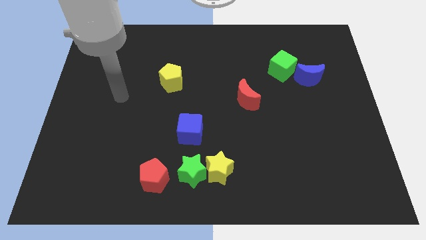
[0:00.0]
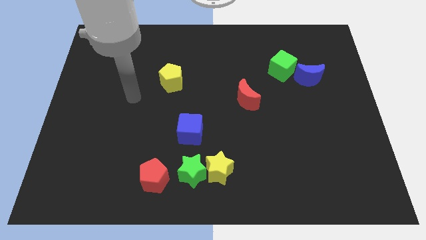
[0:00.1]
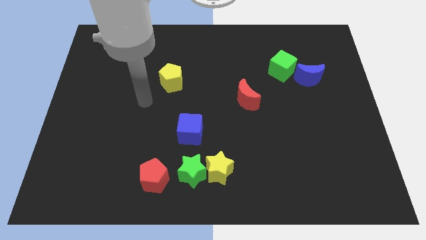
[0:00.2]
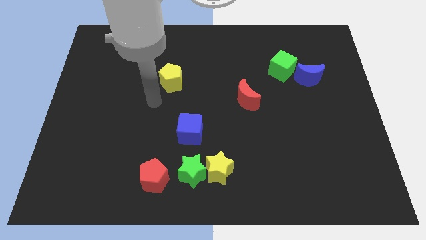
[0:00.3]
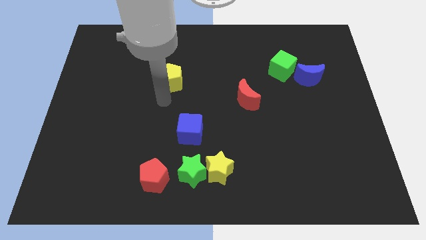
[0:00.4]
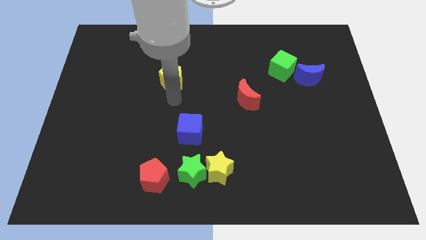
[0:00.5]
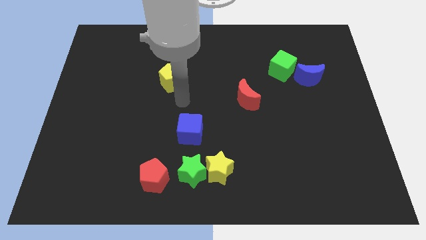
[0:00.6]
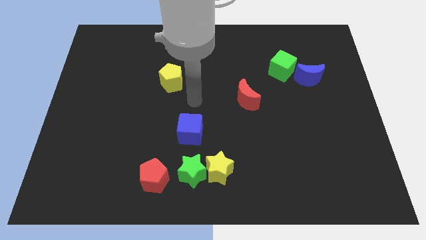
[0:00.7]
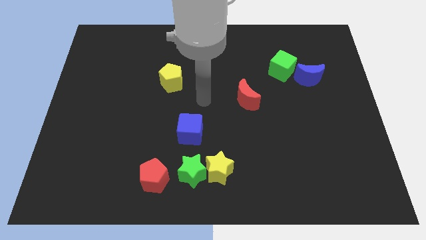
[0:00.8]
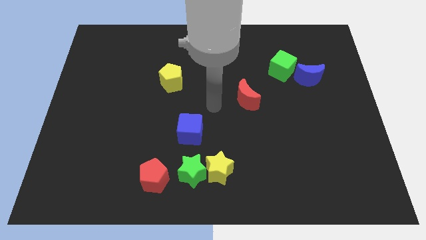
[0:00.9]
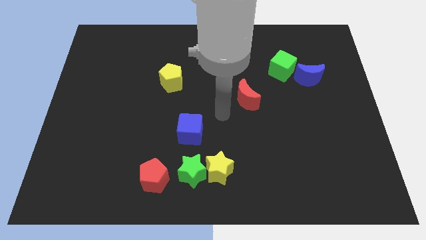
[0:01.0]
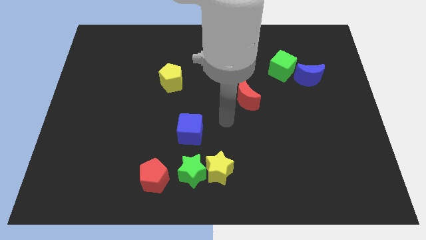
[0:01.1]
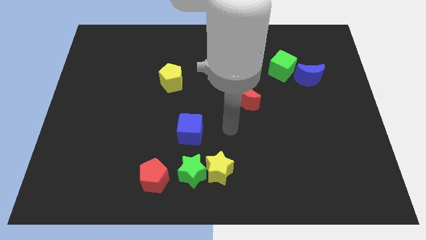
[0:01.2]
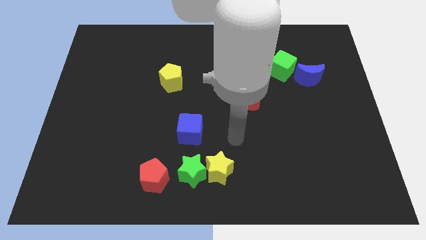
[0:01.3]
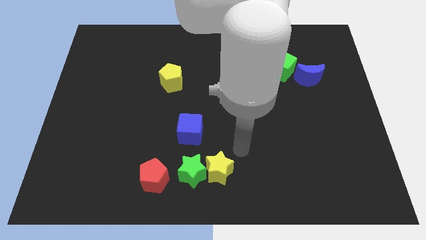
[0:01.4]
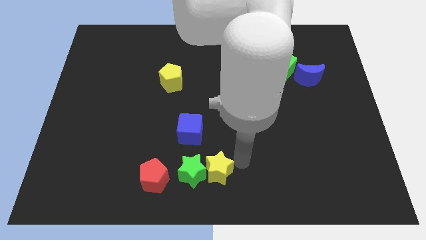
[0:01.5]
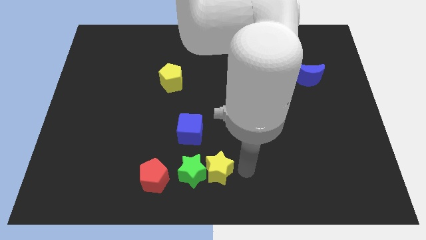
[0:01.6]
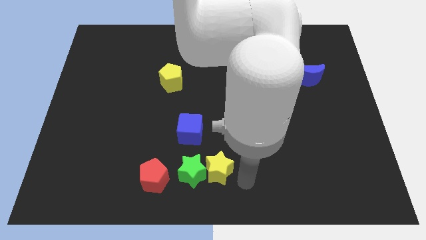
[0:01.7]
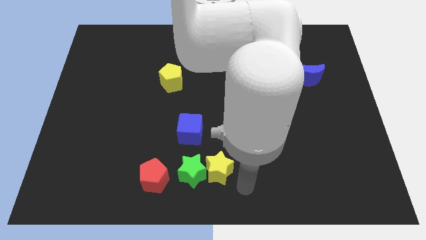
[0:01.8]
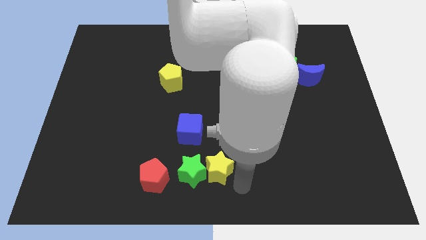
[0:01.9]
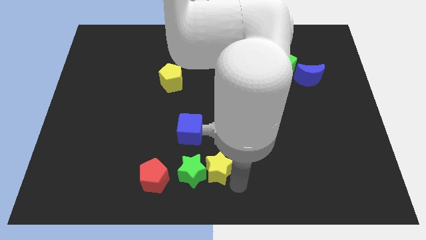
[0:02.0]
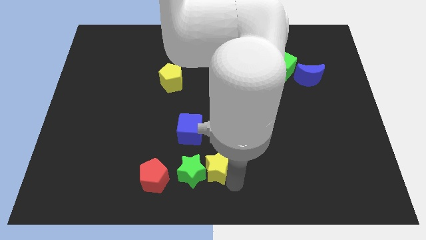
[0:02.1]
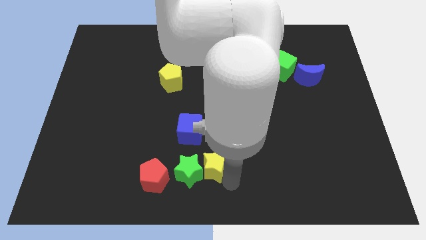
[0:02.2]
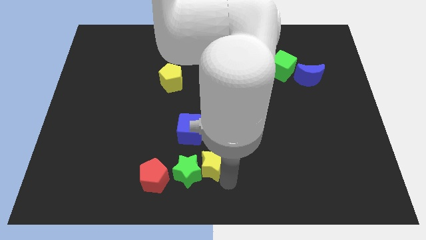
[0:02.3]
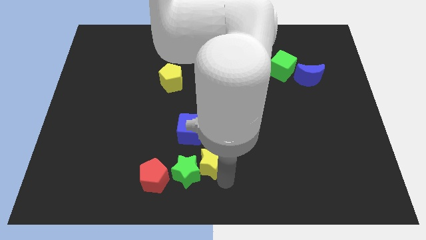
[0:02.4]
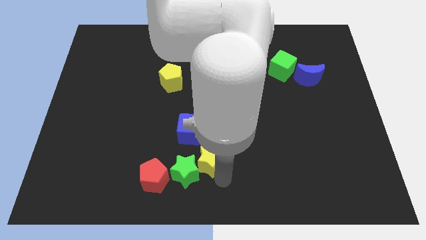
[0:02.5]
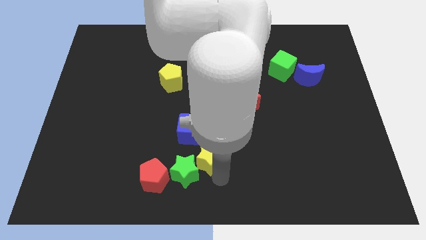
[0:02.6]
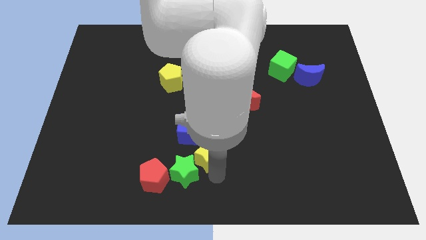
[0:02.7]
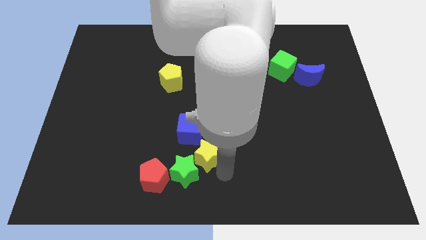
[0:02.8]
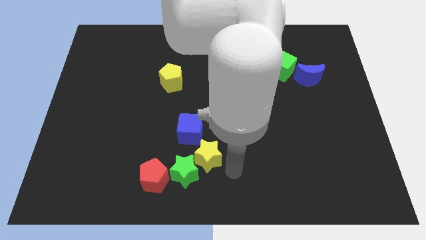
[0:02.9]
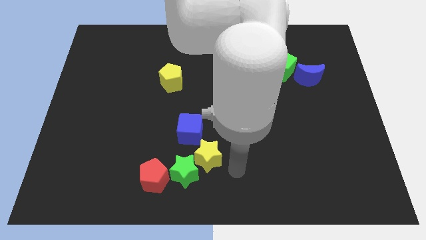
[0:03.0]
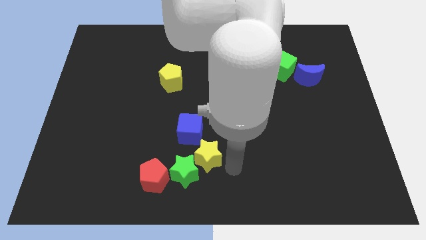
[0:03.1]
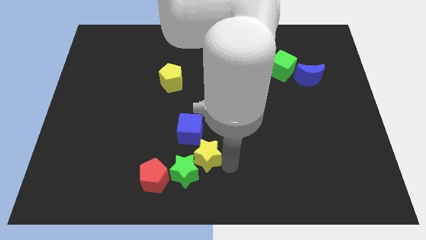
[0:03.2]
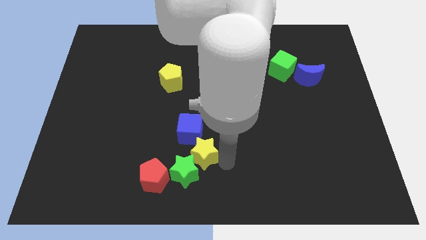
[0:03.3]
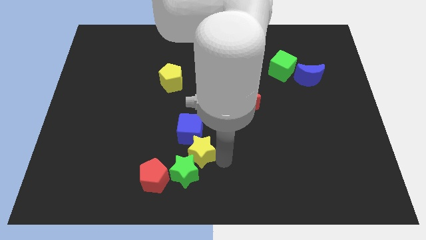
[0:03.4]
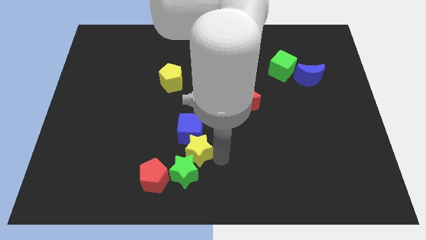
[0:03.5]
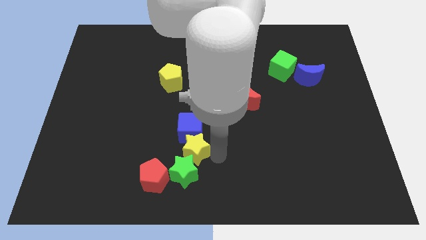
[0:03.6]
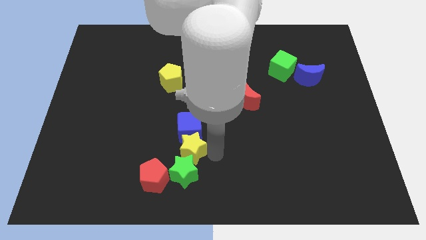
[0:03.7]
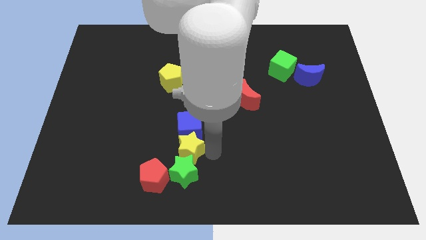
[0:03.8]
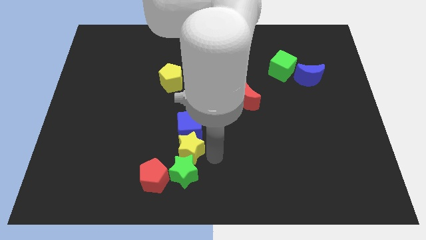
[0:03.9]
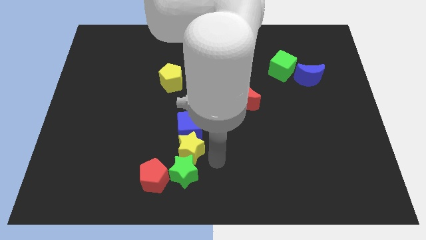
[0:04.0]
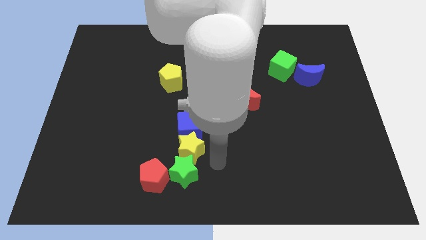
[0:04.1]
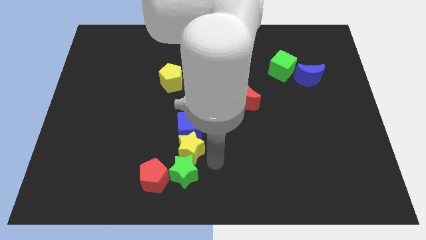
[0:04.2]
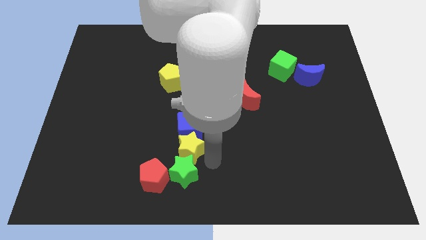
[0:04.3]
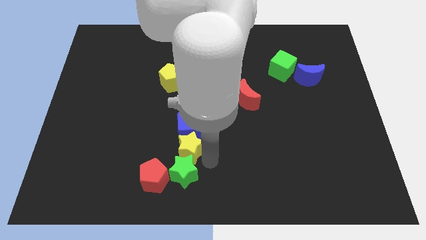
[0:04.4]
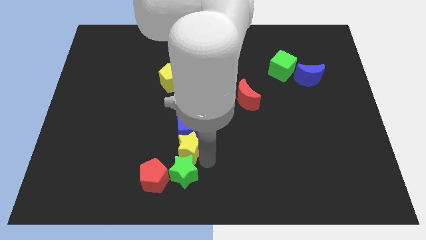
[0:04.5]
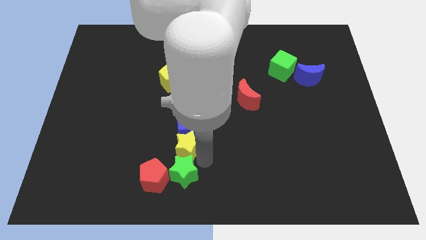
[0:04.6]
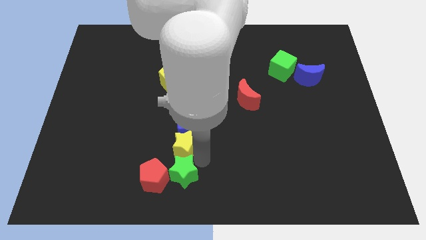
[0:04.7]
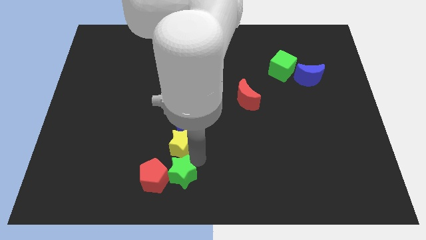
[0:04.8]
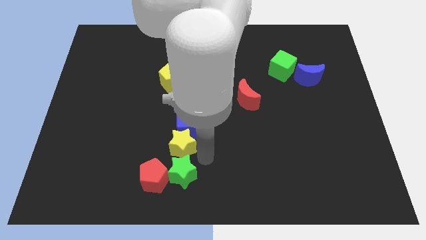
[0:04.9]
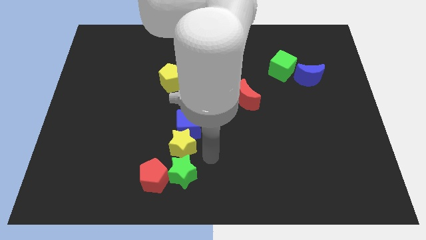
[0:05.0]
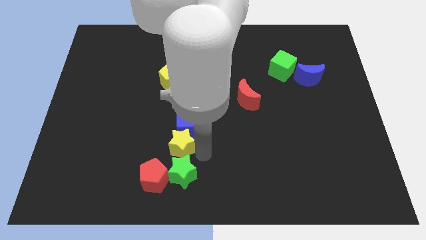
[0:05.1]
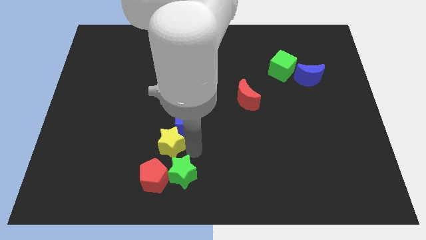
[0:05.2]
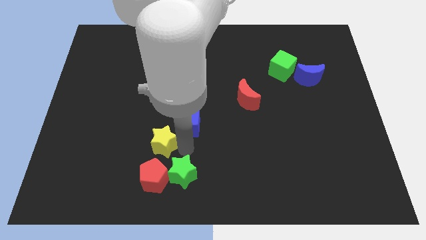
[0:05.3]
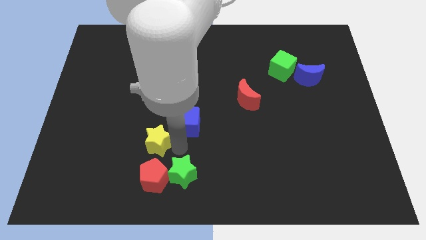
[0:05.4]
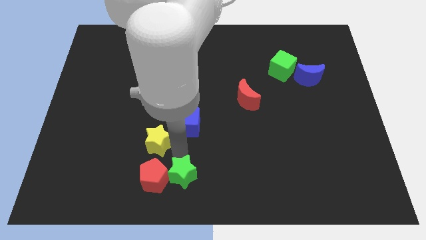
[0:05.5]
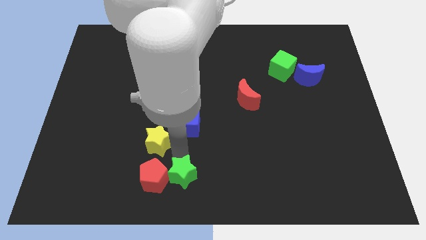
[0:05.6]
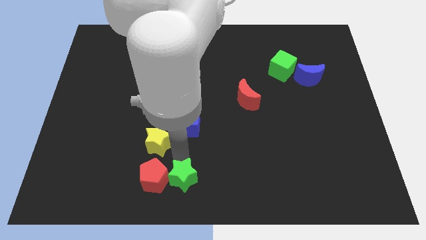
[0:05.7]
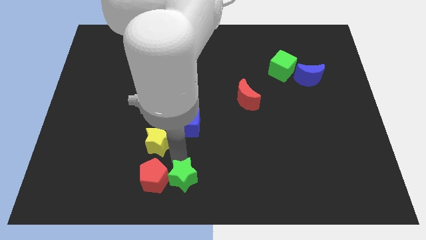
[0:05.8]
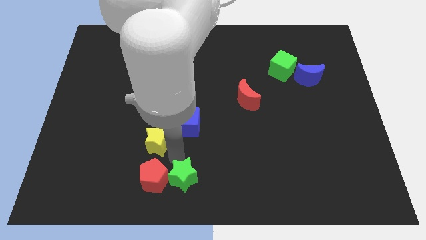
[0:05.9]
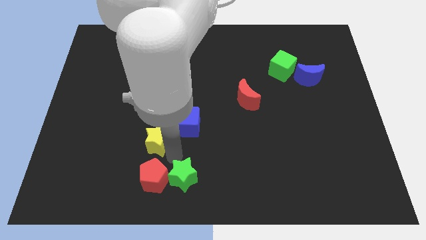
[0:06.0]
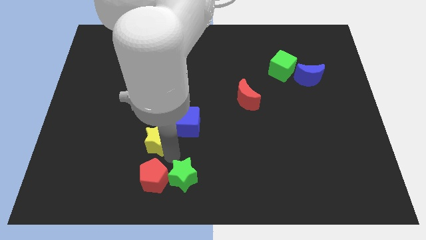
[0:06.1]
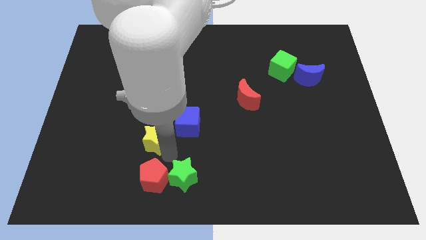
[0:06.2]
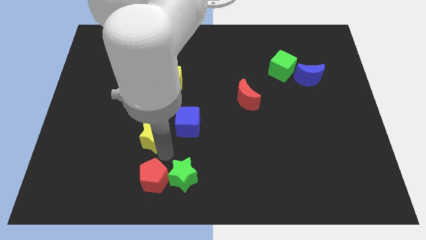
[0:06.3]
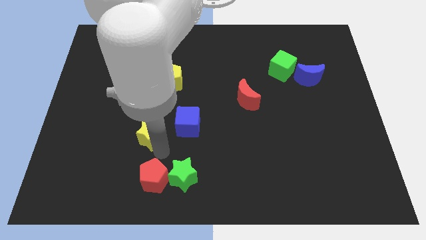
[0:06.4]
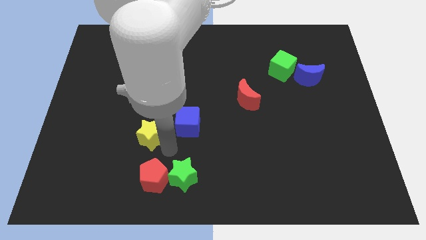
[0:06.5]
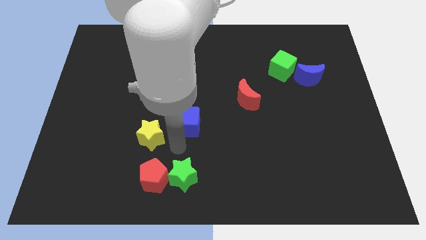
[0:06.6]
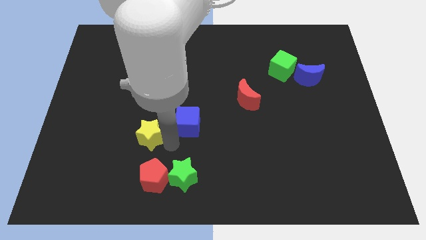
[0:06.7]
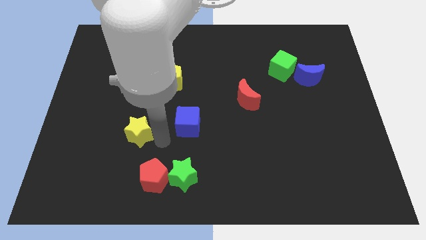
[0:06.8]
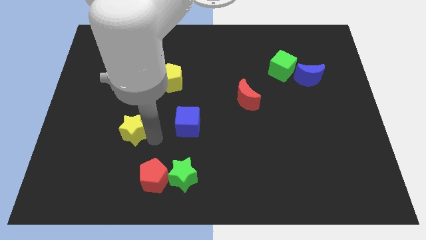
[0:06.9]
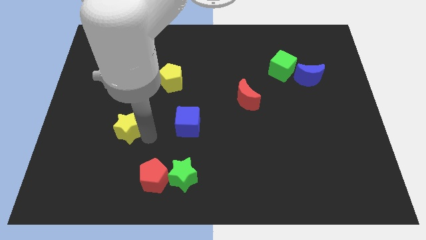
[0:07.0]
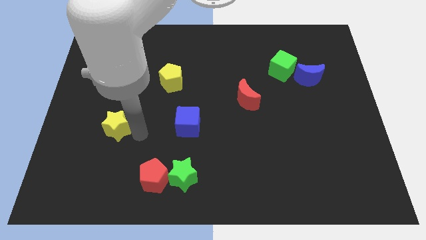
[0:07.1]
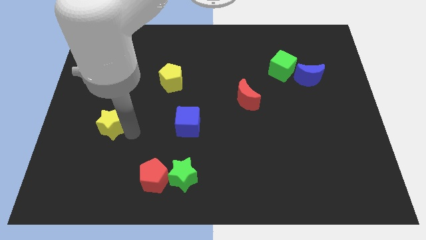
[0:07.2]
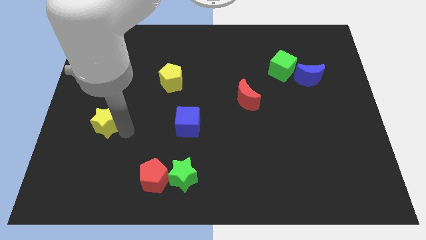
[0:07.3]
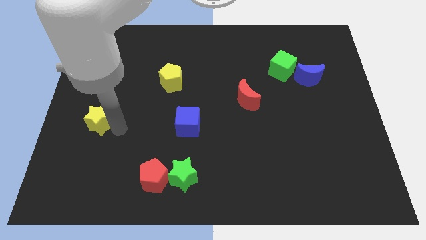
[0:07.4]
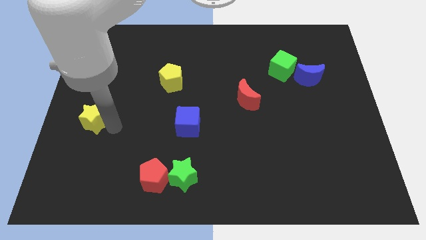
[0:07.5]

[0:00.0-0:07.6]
push the yellow star to the left side
